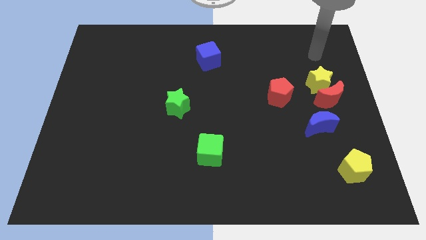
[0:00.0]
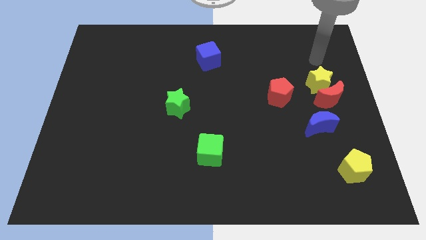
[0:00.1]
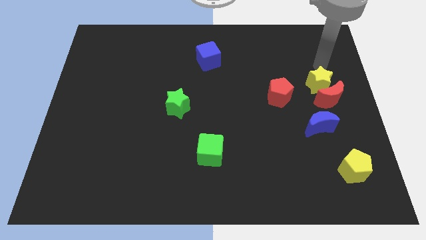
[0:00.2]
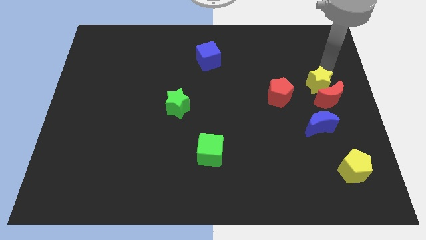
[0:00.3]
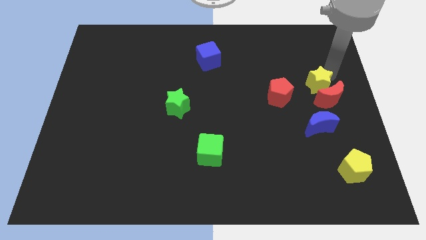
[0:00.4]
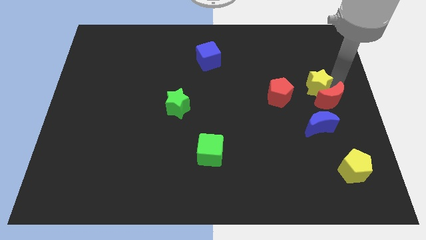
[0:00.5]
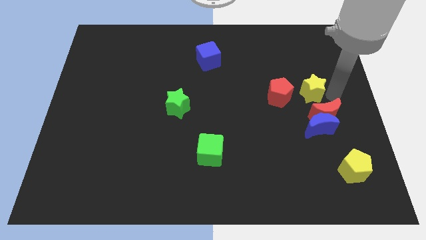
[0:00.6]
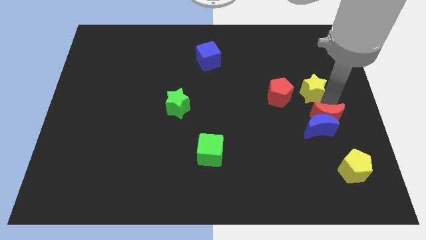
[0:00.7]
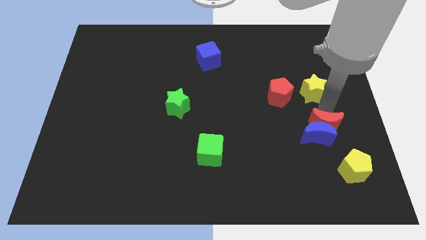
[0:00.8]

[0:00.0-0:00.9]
separate the yellow star from the red moon

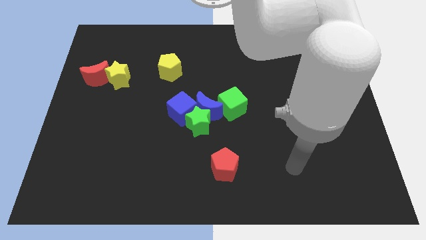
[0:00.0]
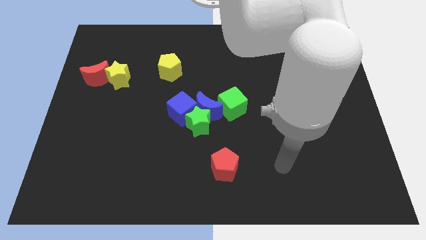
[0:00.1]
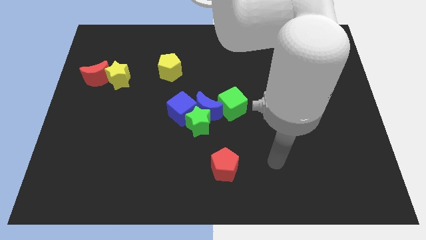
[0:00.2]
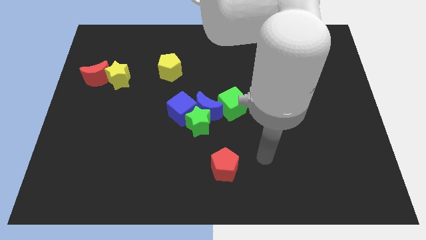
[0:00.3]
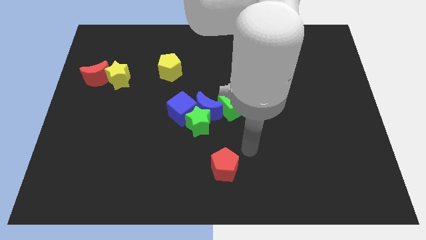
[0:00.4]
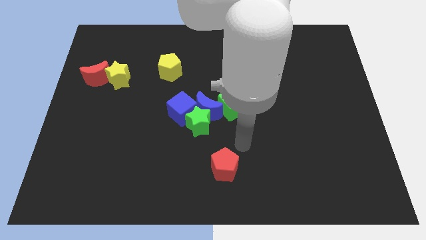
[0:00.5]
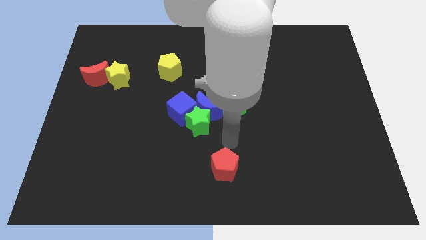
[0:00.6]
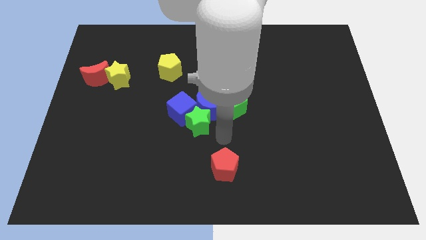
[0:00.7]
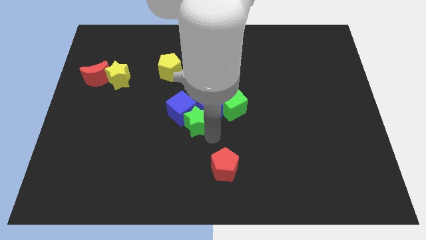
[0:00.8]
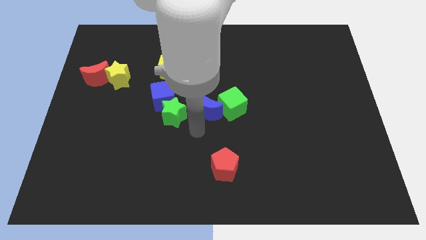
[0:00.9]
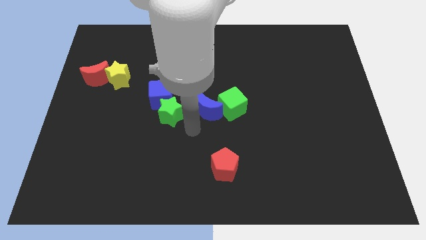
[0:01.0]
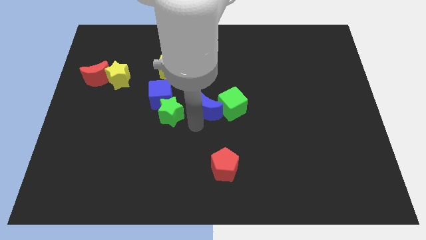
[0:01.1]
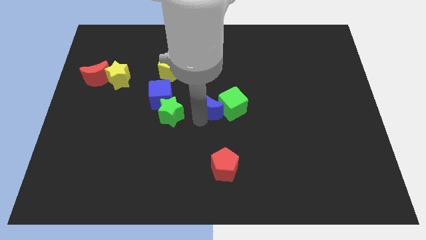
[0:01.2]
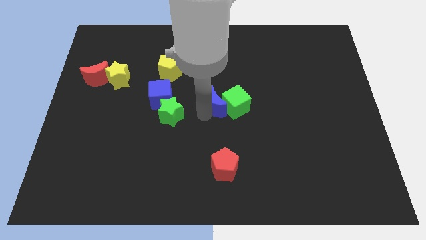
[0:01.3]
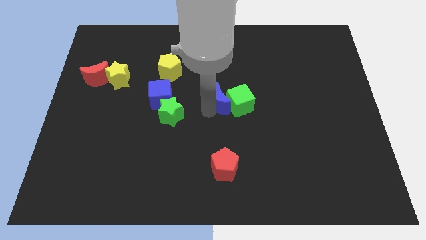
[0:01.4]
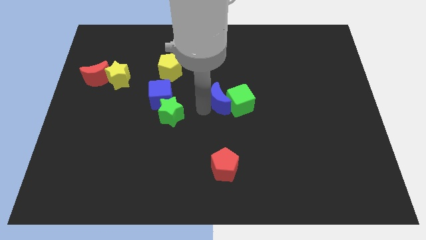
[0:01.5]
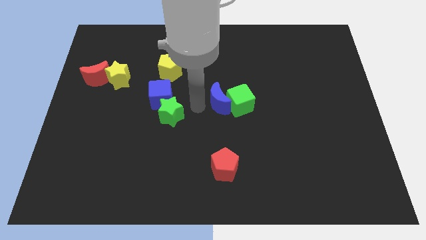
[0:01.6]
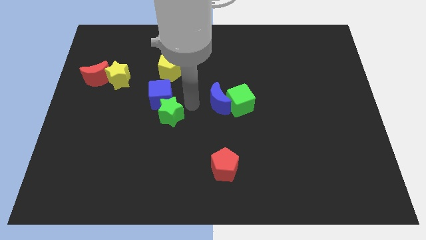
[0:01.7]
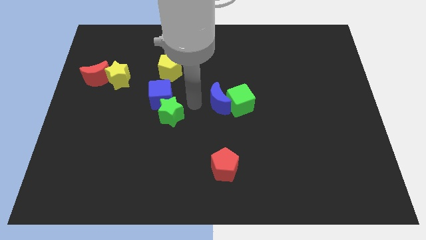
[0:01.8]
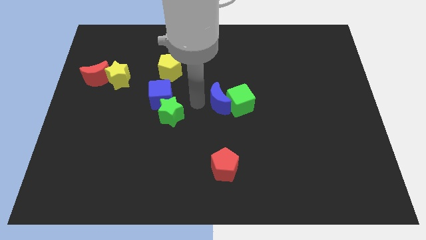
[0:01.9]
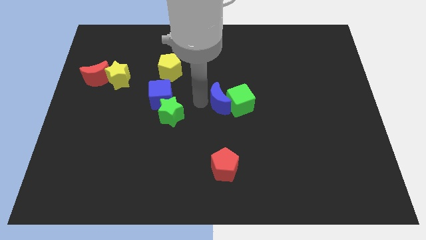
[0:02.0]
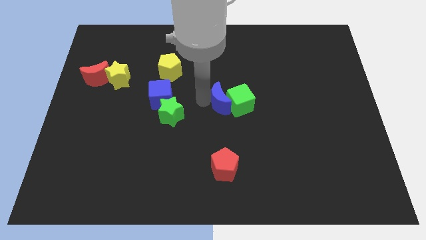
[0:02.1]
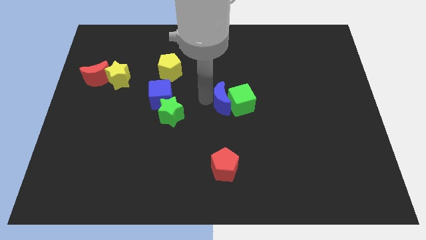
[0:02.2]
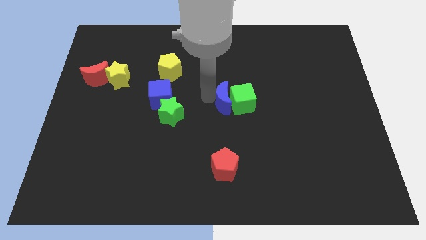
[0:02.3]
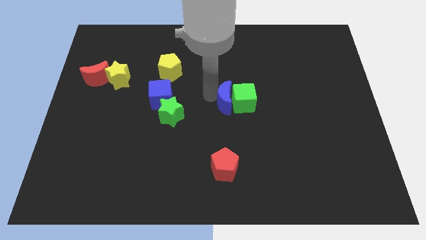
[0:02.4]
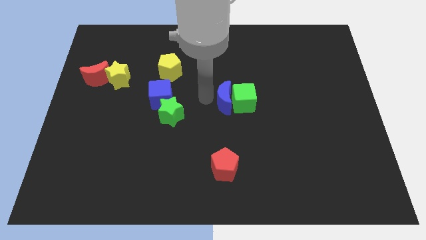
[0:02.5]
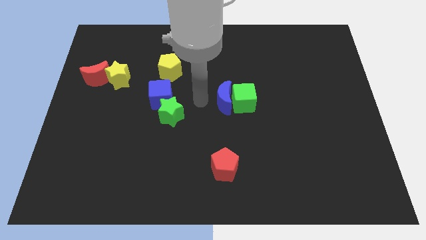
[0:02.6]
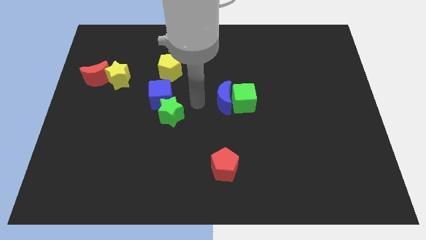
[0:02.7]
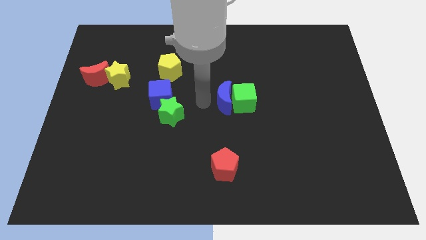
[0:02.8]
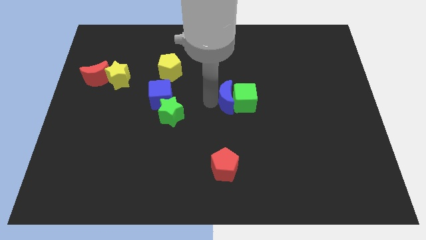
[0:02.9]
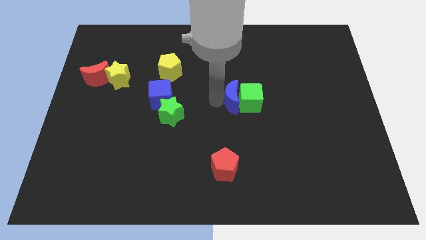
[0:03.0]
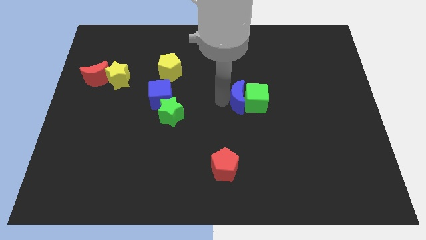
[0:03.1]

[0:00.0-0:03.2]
move the blue moon away from the clump

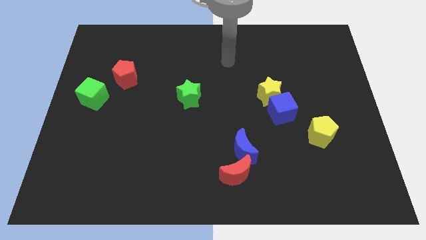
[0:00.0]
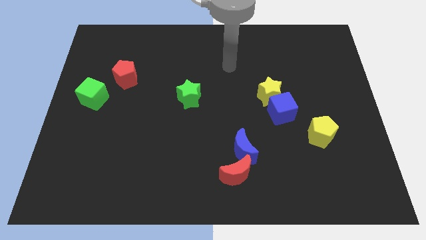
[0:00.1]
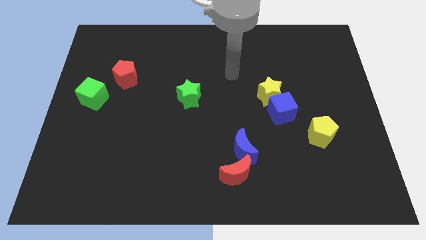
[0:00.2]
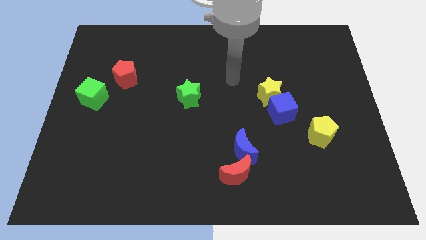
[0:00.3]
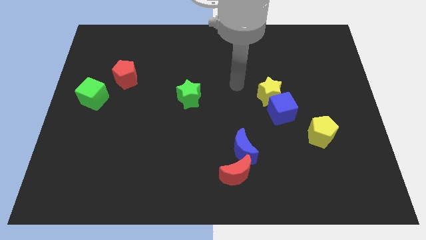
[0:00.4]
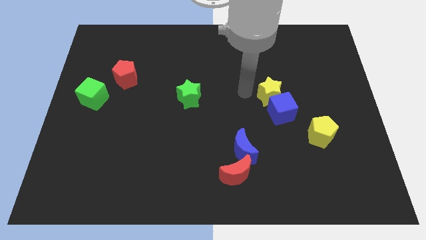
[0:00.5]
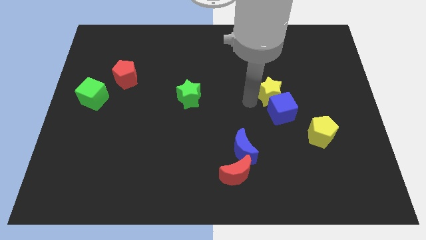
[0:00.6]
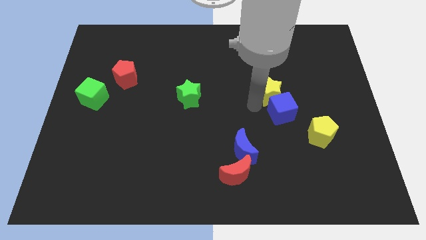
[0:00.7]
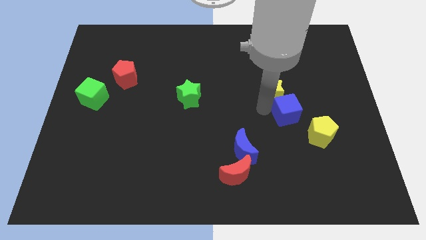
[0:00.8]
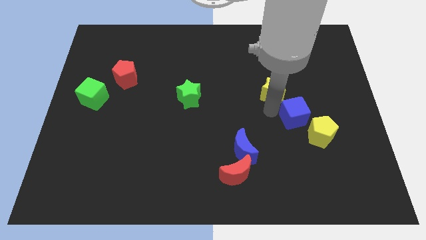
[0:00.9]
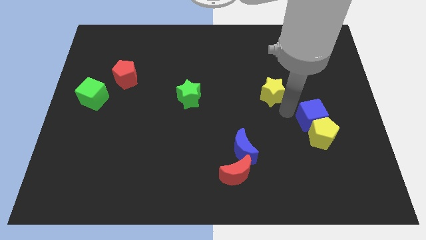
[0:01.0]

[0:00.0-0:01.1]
pull the yellow star apart from the blue cube

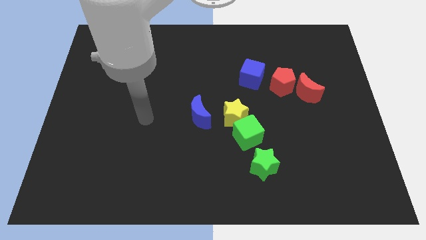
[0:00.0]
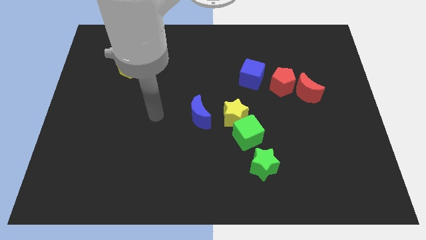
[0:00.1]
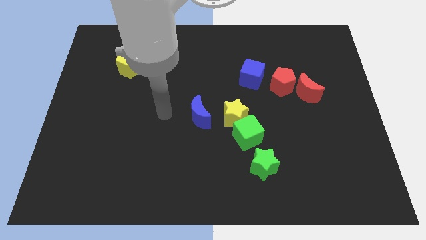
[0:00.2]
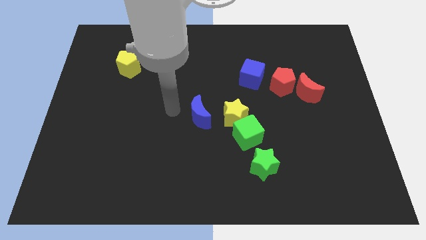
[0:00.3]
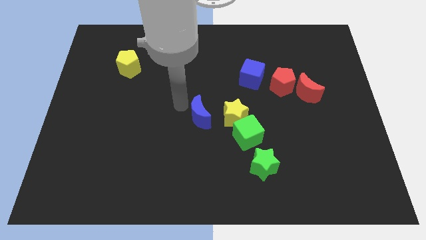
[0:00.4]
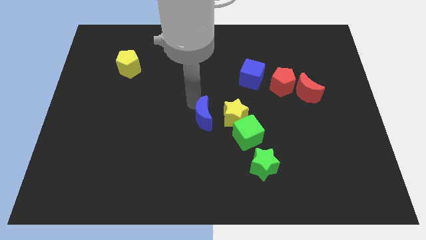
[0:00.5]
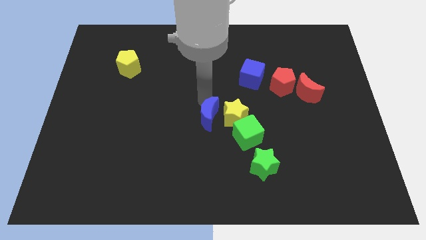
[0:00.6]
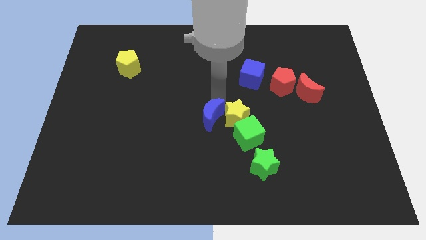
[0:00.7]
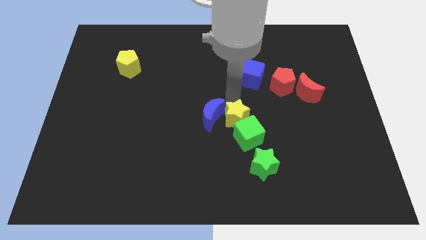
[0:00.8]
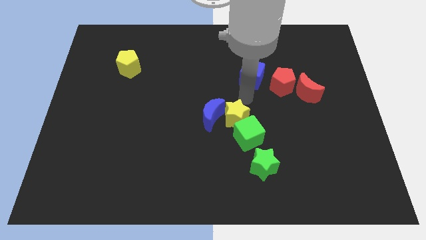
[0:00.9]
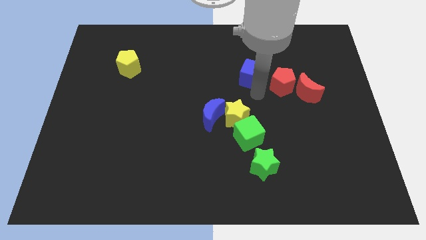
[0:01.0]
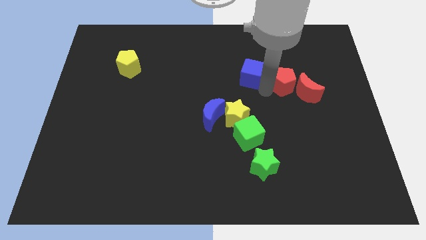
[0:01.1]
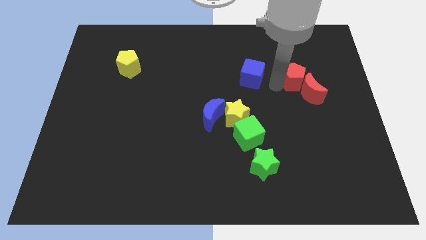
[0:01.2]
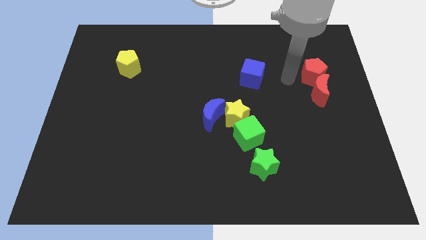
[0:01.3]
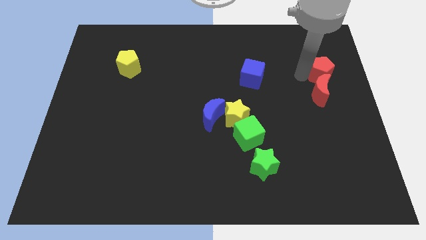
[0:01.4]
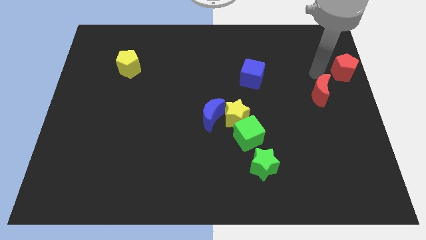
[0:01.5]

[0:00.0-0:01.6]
pull the red moon apart from the red pentagon

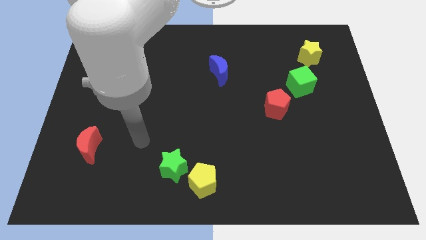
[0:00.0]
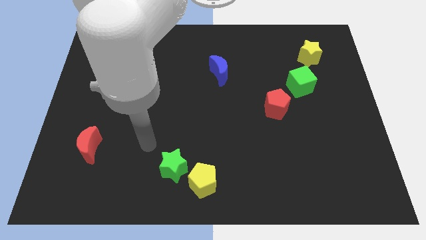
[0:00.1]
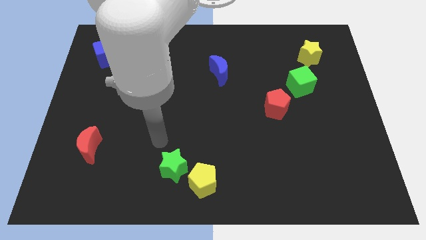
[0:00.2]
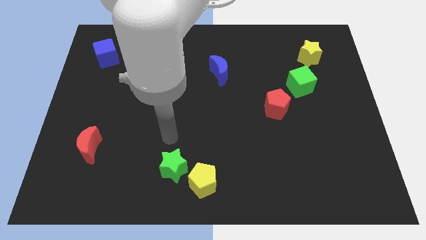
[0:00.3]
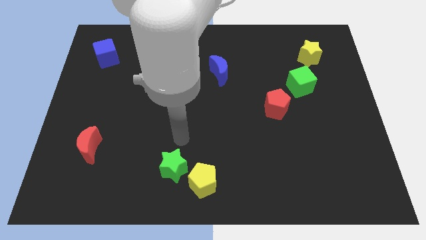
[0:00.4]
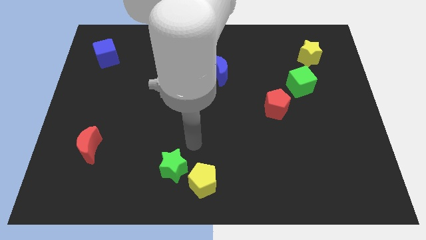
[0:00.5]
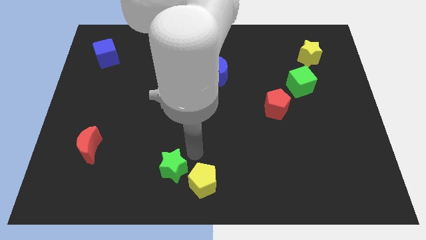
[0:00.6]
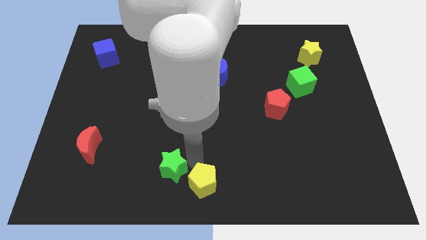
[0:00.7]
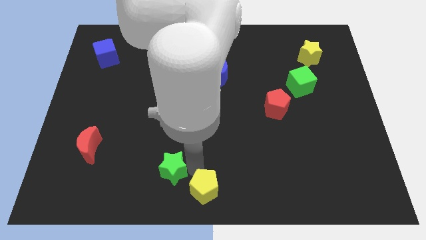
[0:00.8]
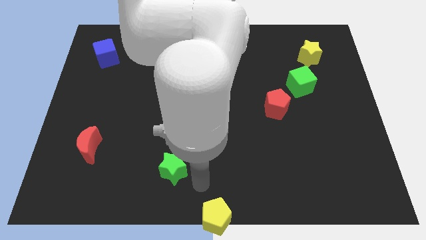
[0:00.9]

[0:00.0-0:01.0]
pull the green star apart from the yellow pentagon

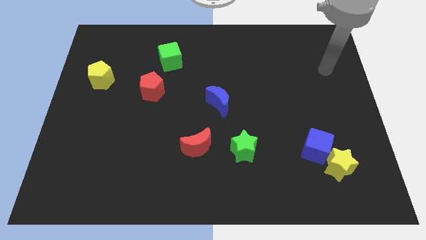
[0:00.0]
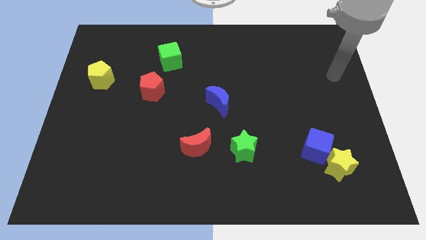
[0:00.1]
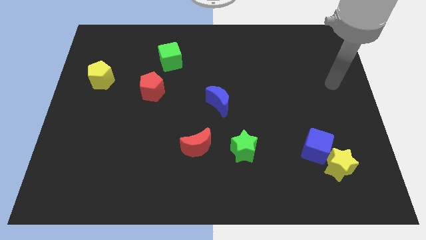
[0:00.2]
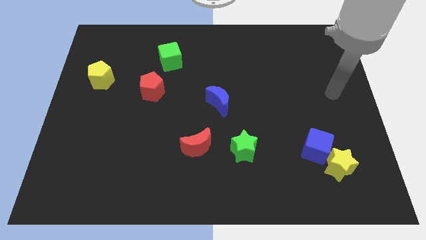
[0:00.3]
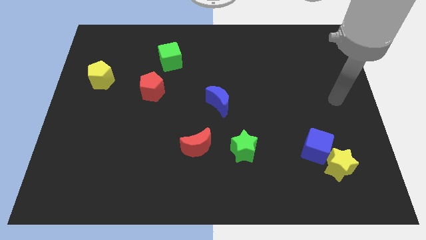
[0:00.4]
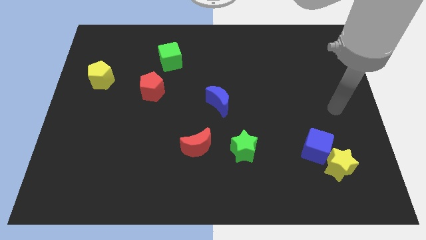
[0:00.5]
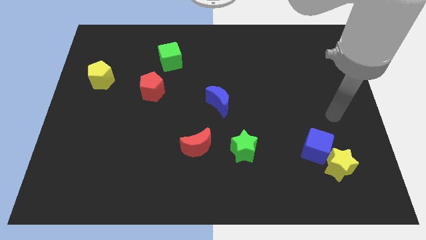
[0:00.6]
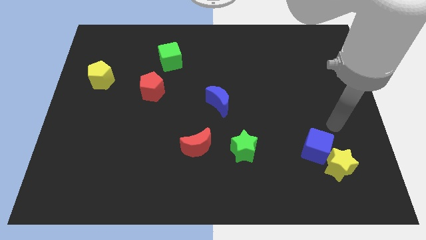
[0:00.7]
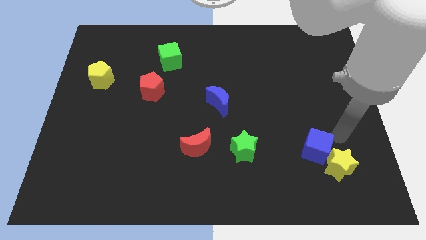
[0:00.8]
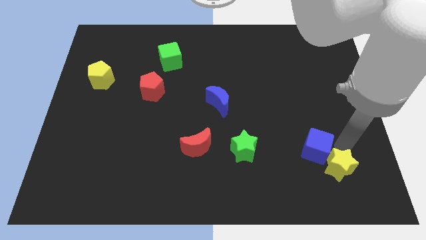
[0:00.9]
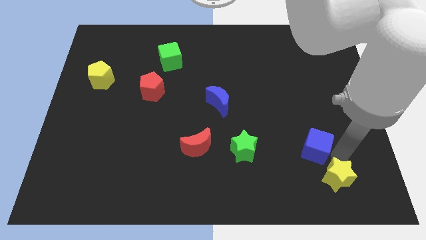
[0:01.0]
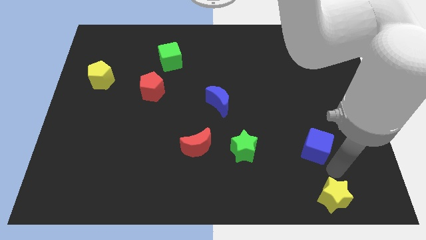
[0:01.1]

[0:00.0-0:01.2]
move the blue cube away from the yellow star

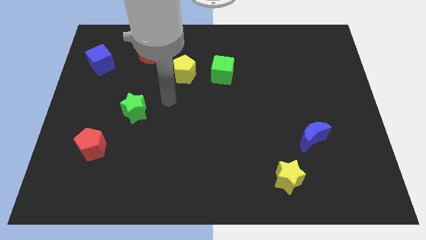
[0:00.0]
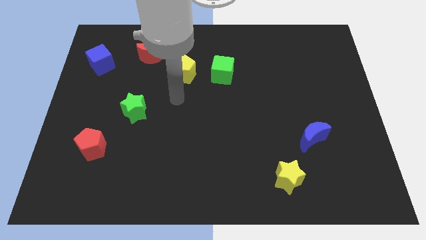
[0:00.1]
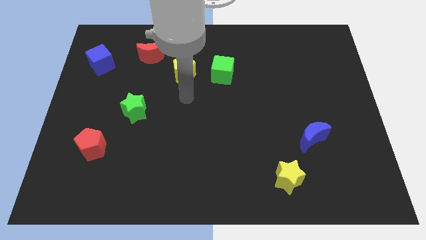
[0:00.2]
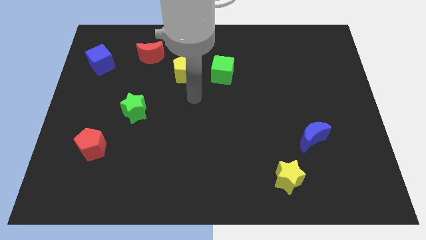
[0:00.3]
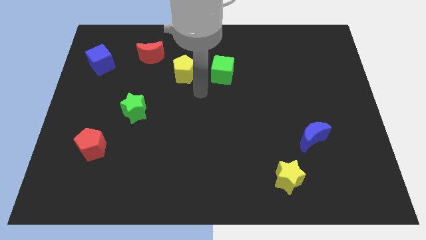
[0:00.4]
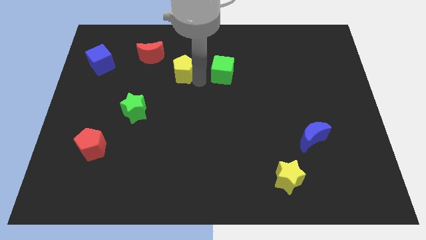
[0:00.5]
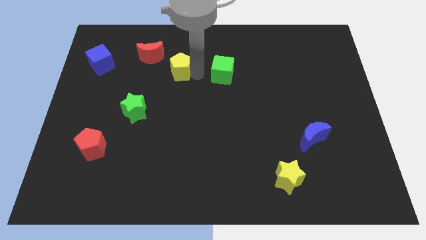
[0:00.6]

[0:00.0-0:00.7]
separate the green cube from the yellow pentagon
